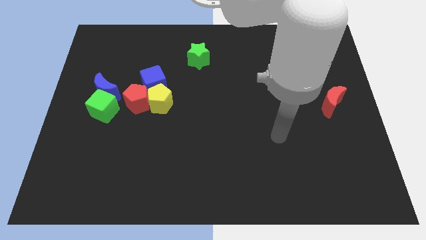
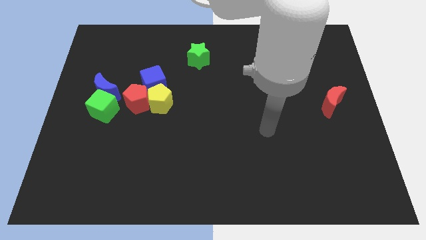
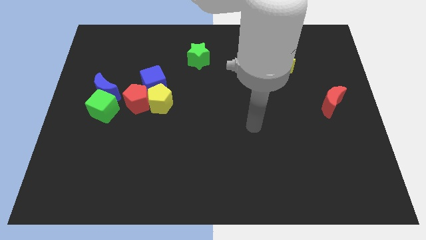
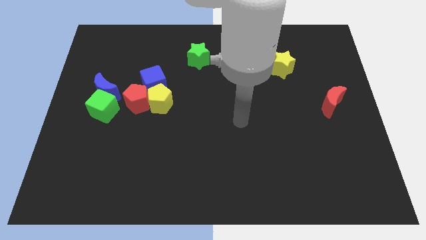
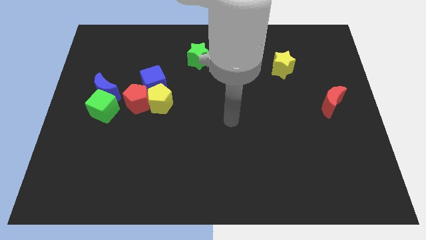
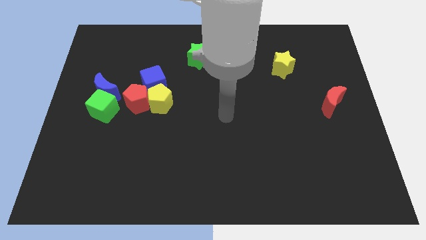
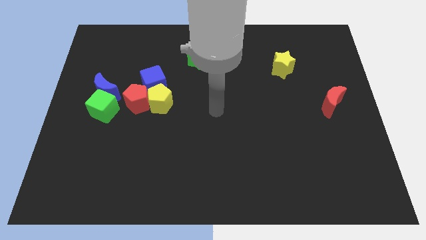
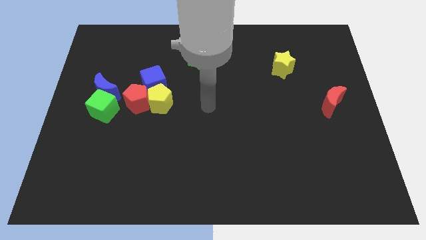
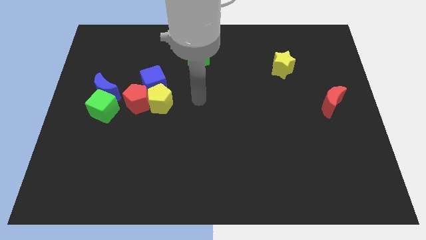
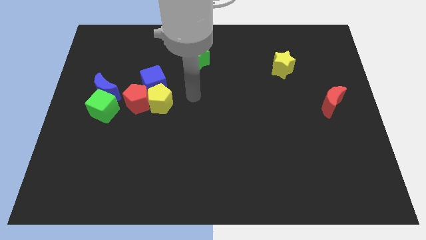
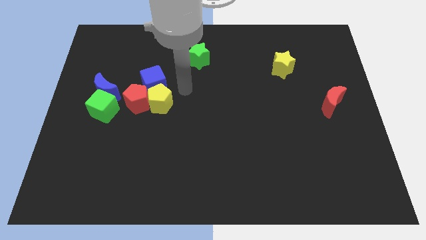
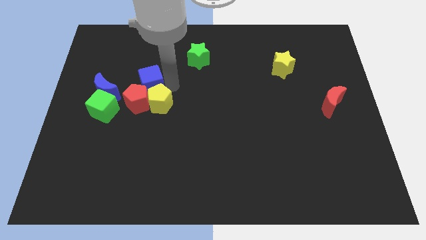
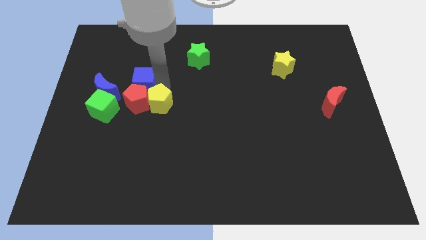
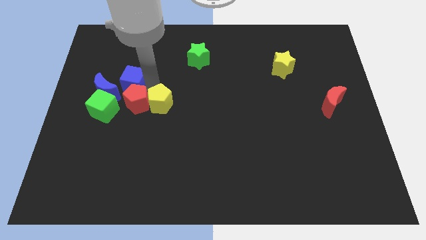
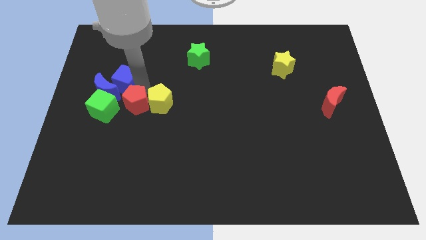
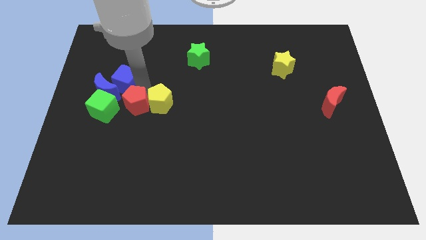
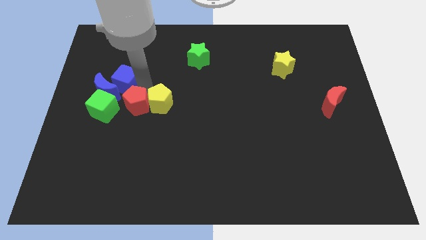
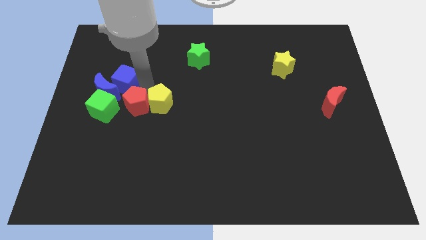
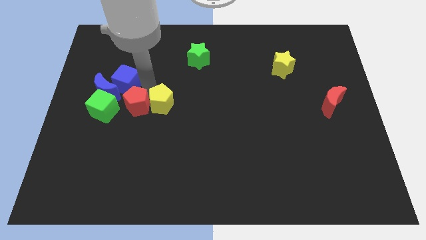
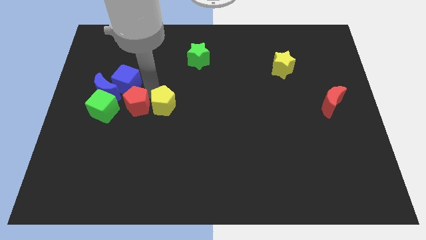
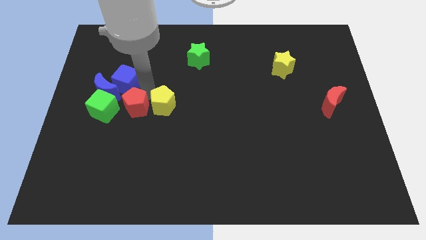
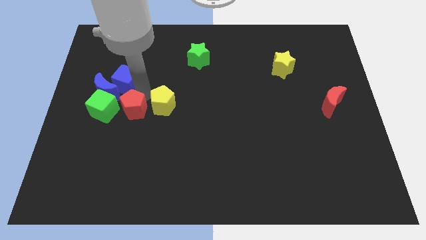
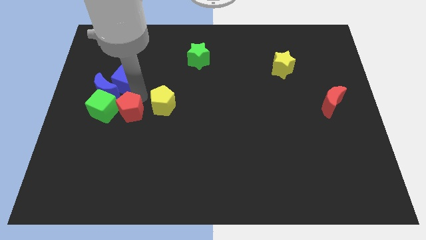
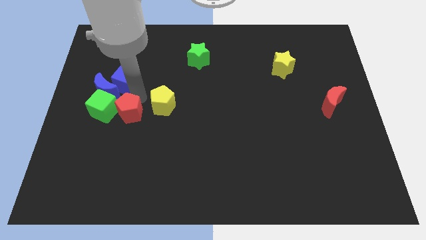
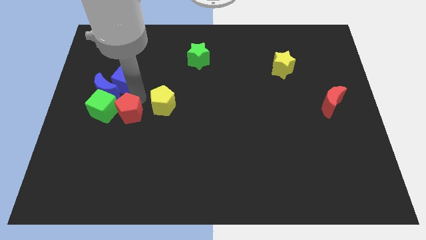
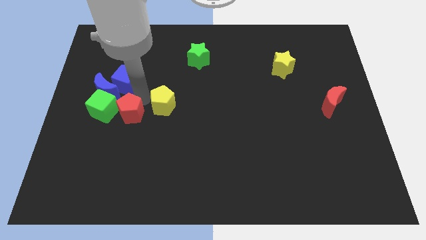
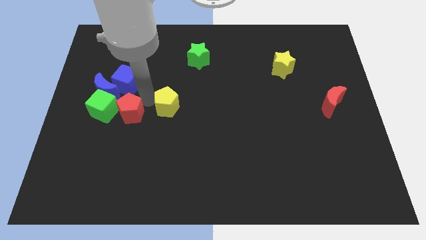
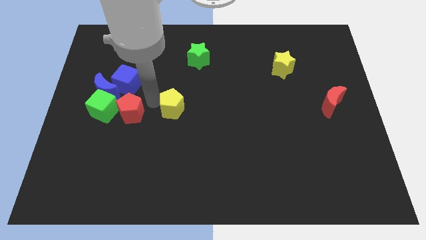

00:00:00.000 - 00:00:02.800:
pull the yellow pentagon apart from the red pentagon and blue cube

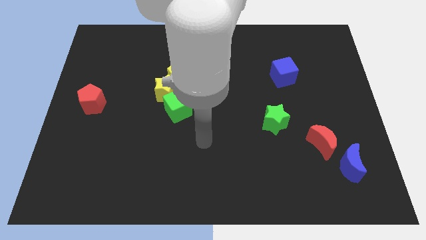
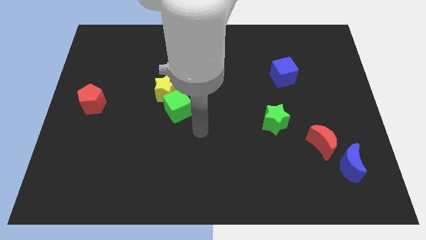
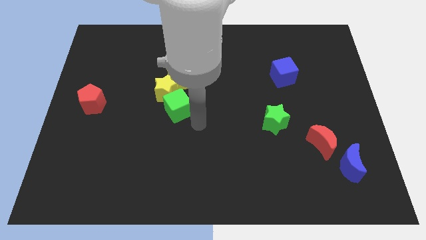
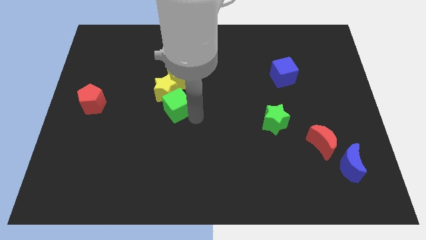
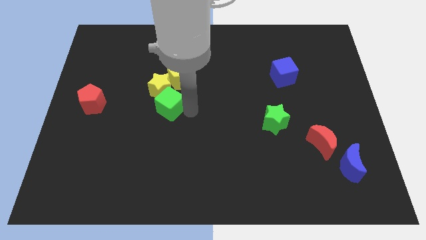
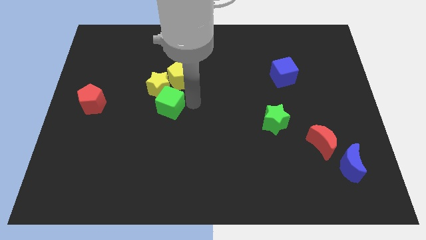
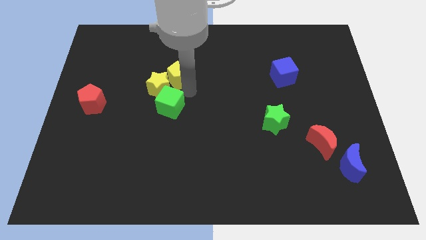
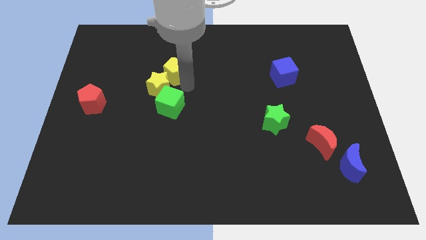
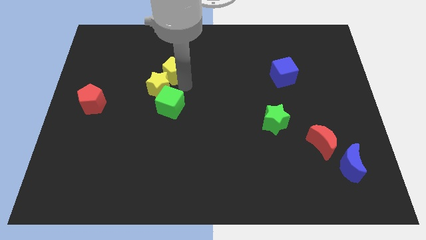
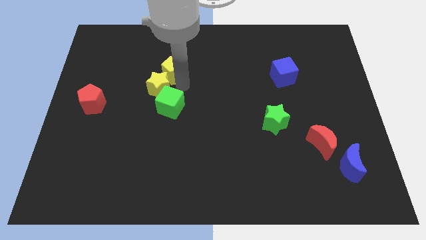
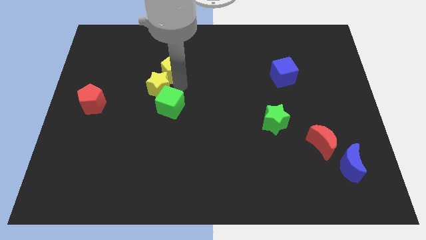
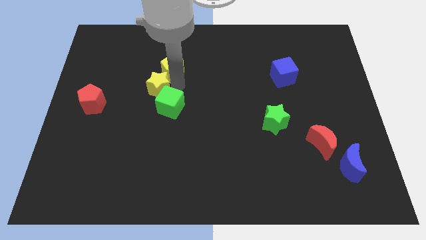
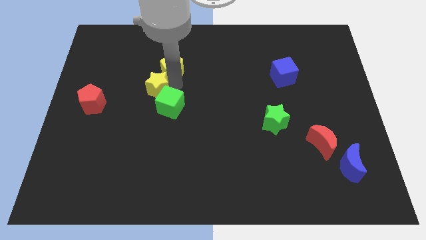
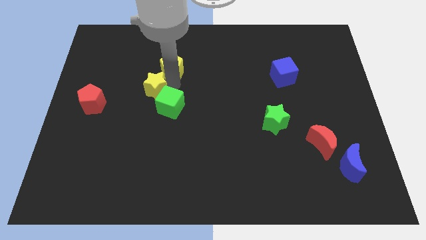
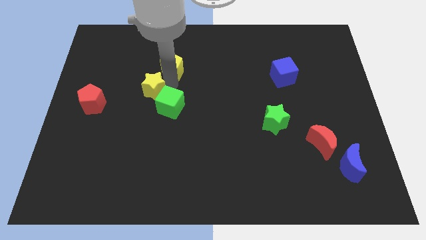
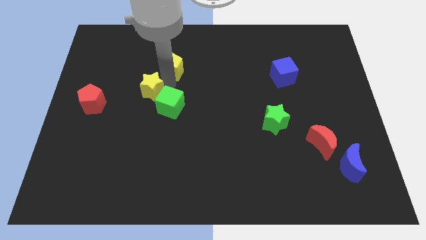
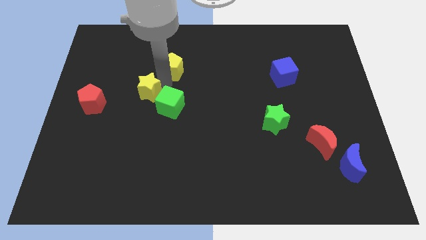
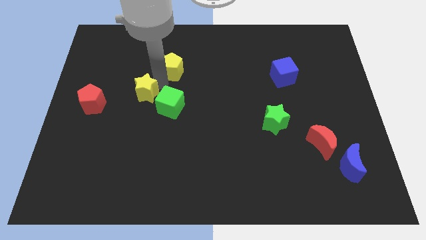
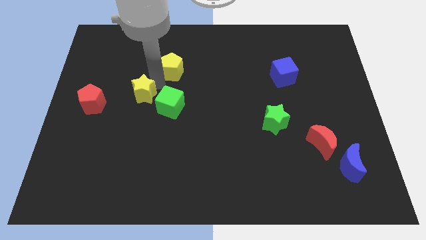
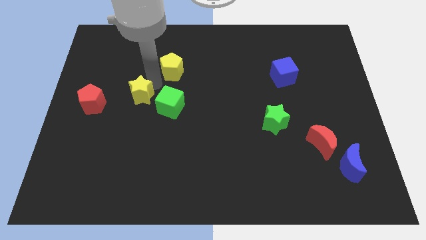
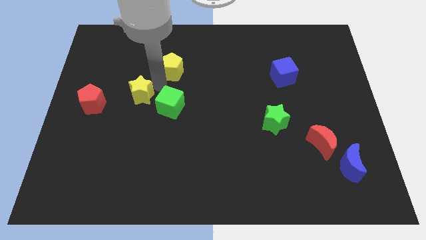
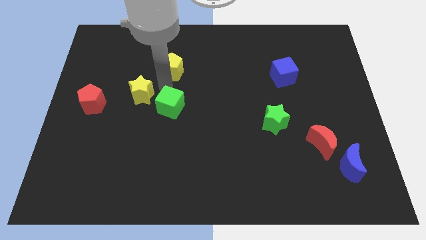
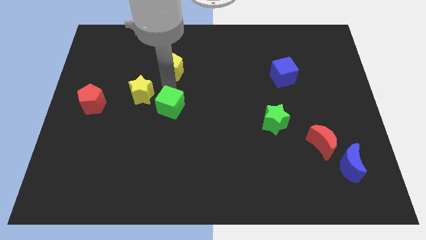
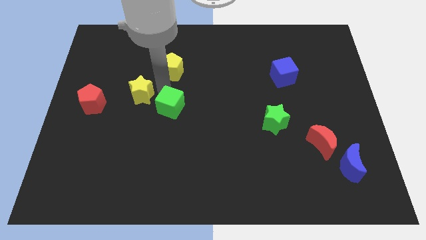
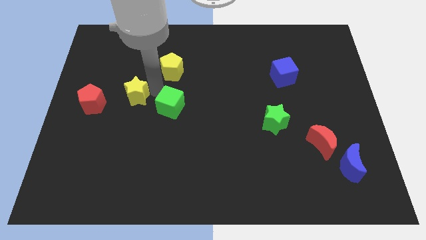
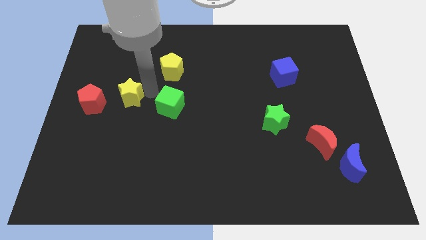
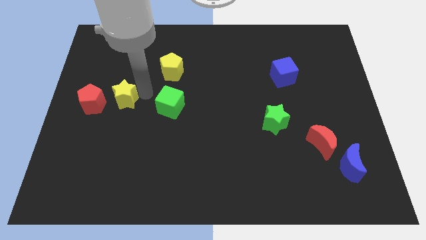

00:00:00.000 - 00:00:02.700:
move the yellow star away from the yellow pentagon and green cube

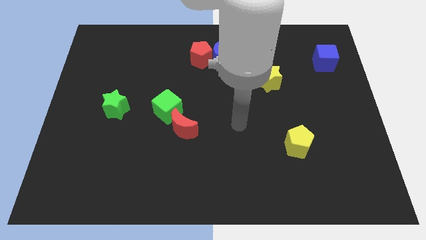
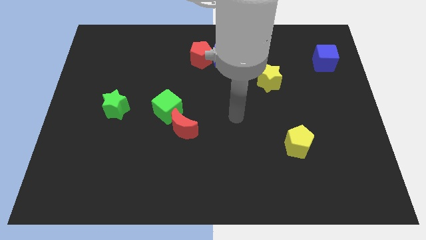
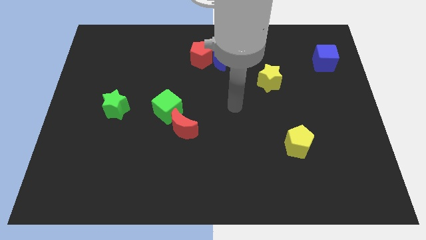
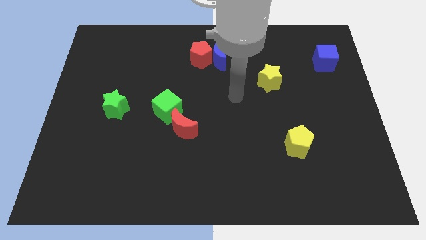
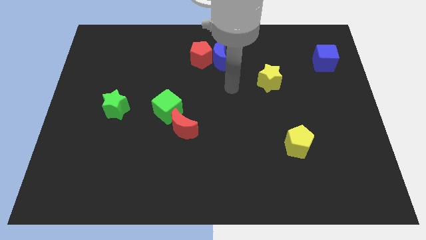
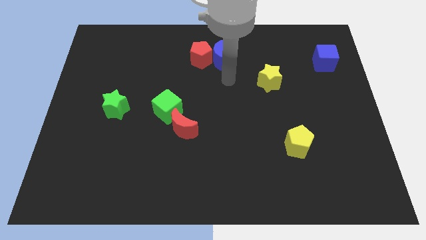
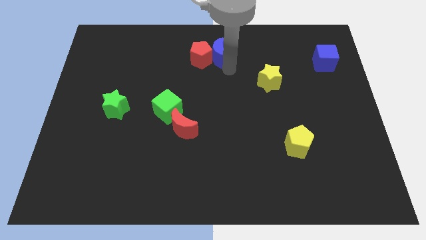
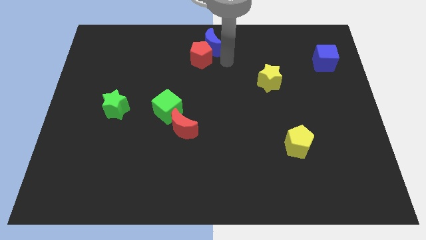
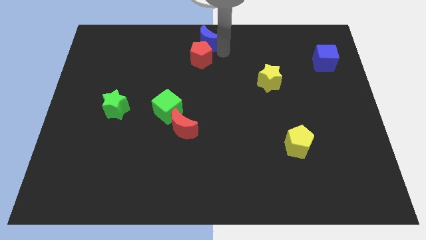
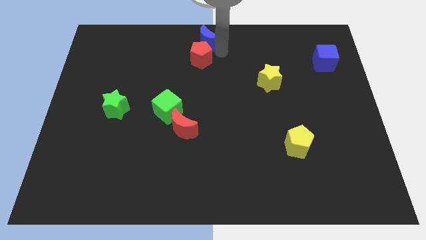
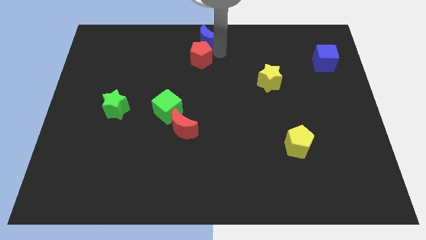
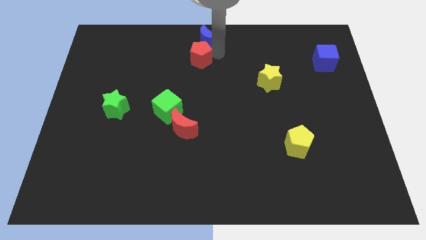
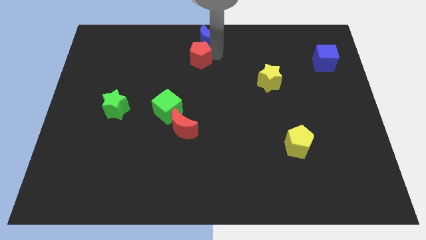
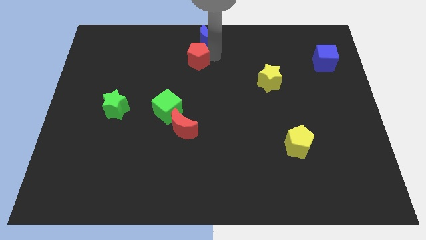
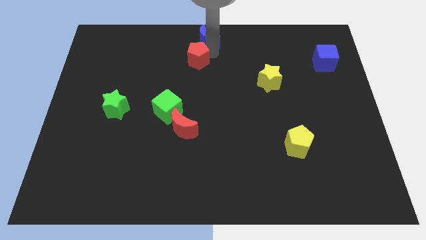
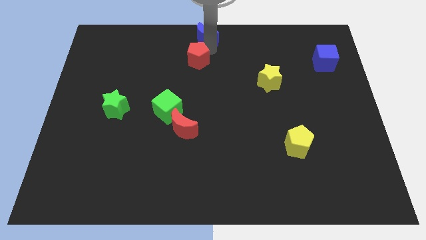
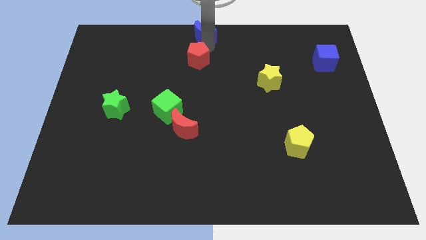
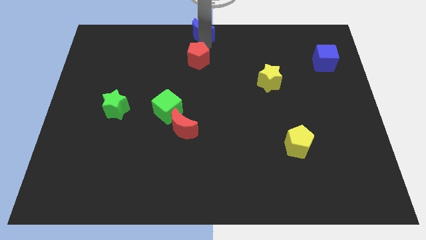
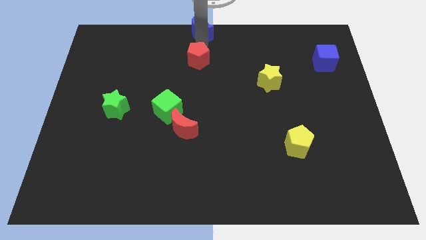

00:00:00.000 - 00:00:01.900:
separate the red pentagon from the blue moon

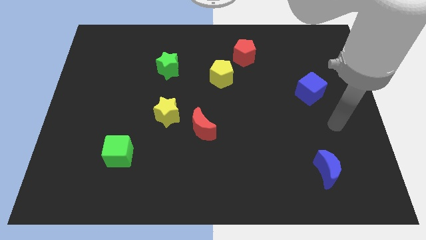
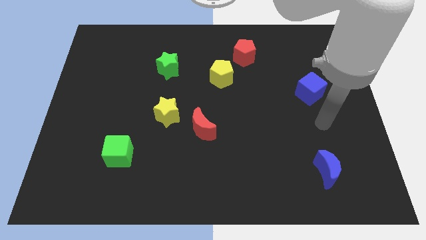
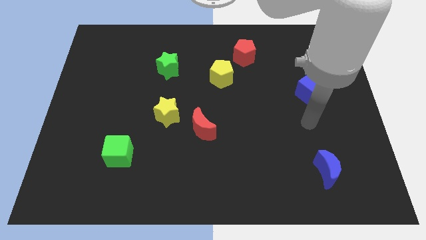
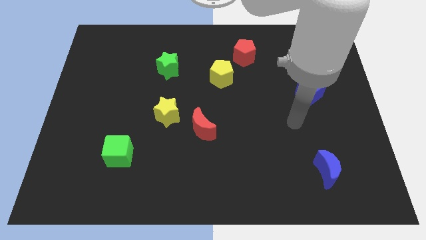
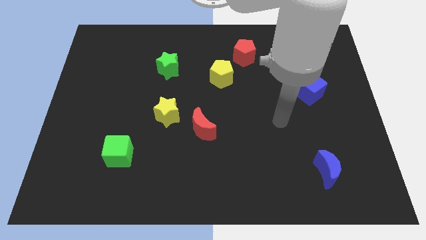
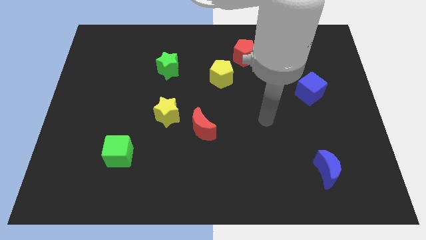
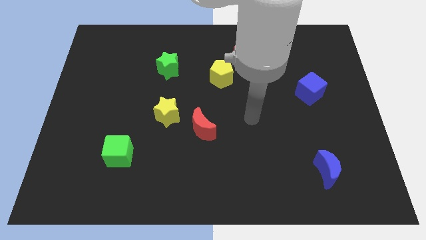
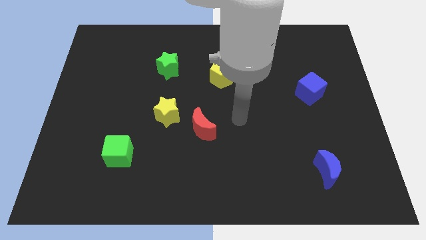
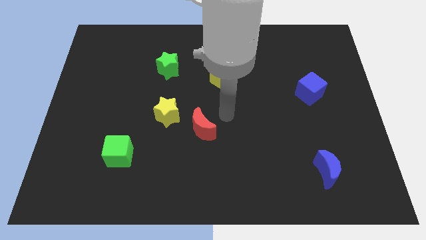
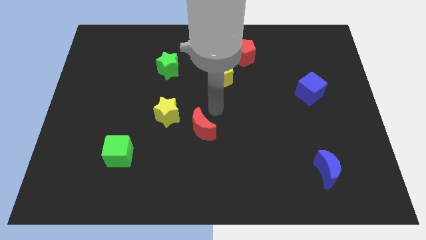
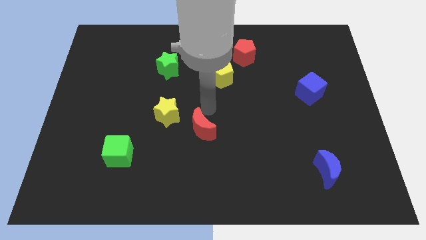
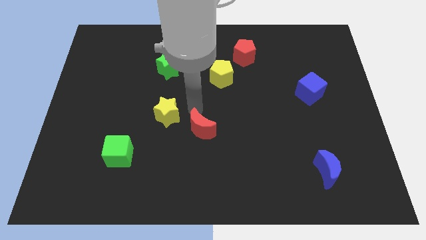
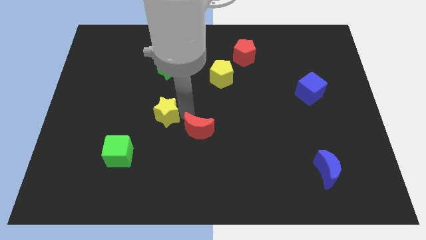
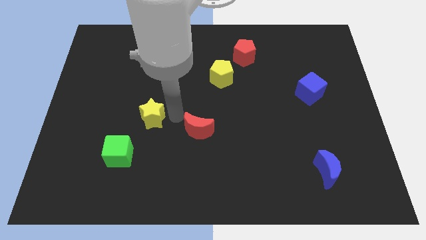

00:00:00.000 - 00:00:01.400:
move the red moon away from the yellow star

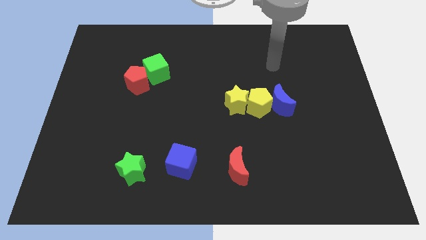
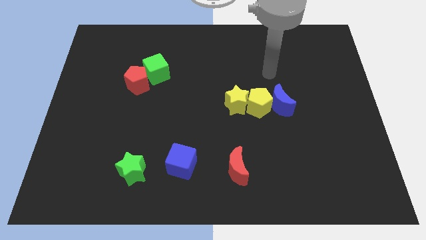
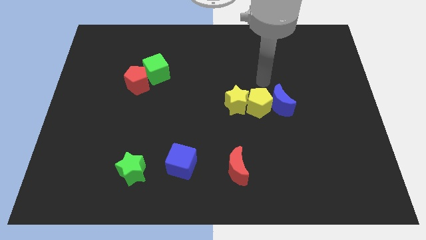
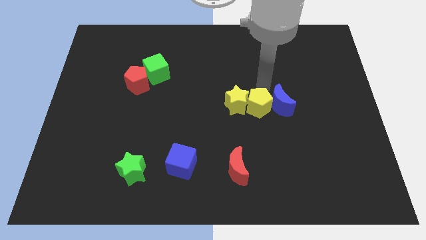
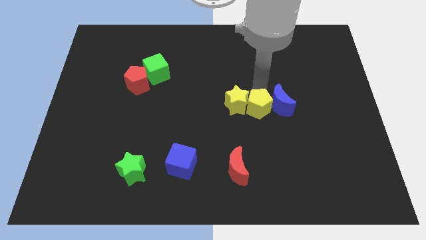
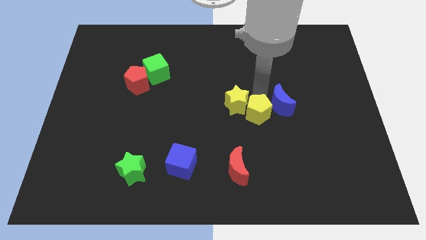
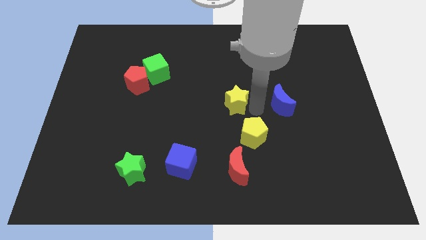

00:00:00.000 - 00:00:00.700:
pull the blue moon apart from the yellow pentagon
